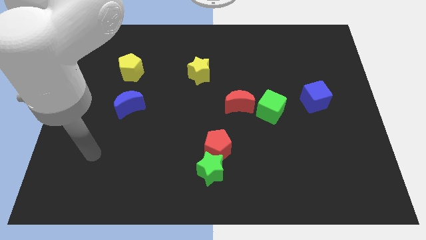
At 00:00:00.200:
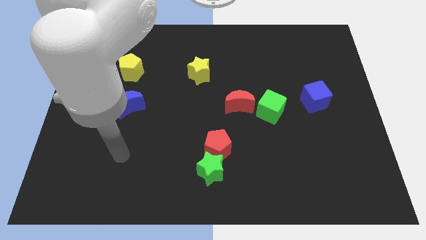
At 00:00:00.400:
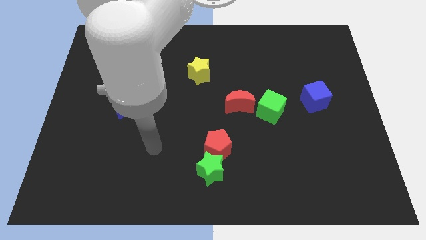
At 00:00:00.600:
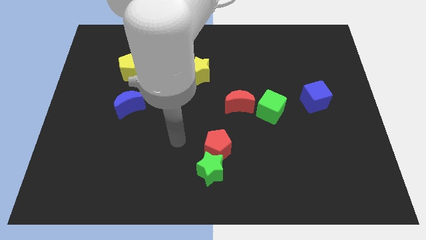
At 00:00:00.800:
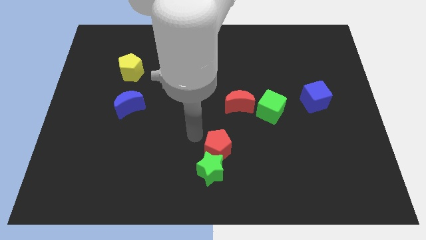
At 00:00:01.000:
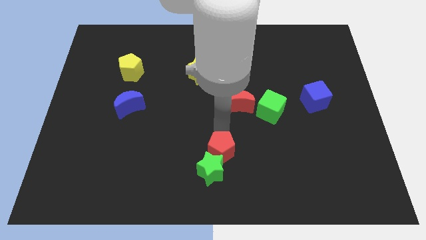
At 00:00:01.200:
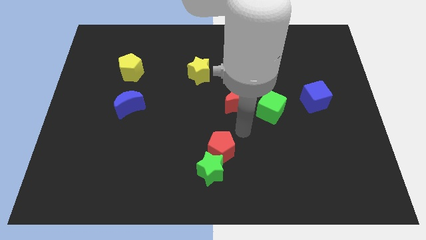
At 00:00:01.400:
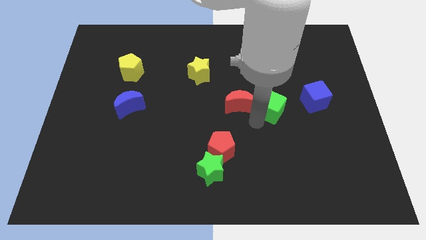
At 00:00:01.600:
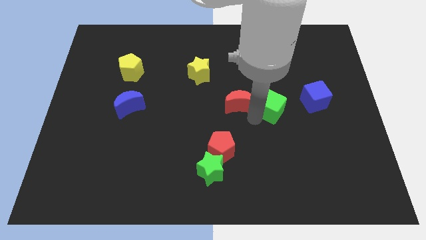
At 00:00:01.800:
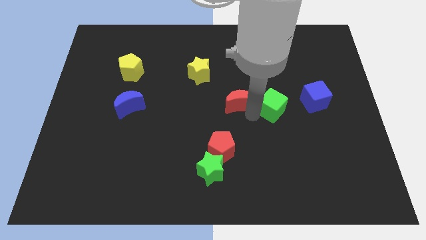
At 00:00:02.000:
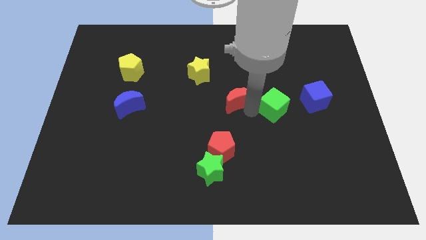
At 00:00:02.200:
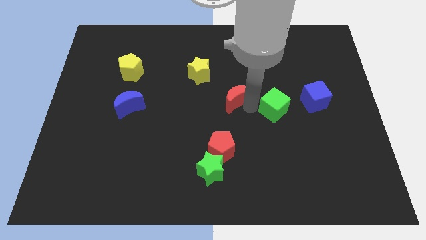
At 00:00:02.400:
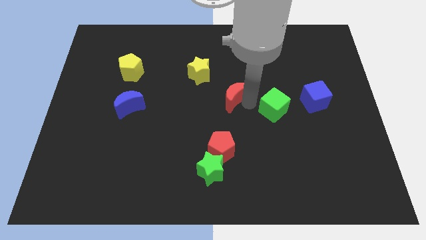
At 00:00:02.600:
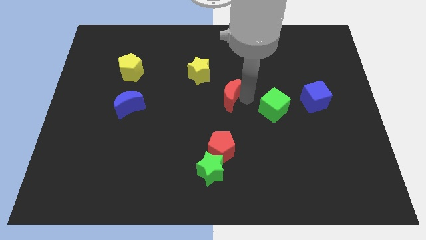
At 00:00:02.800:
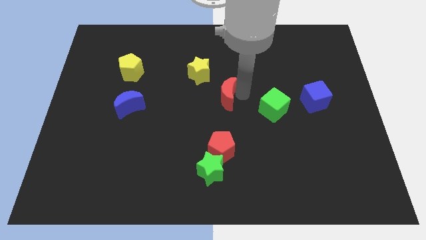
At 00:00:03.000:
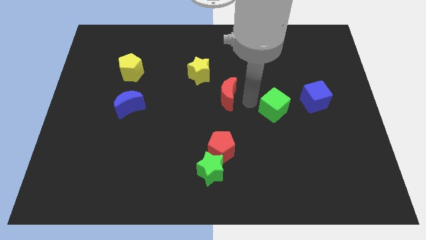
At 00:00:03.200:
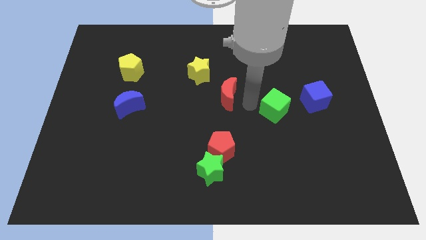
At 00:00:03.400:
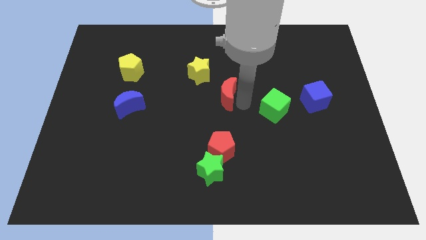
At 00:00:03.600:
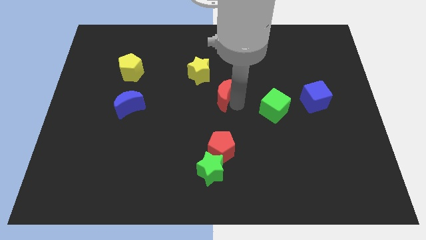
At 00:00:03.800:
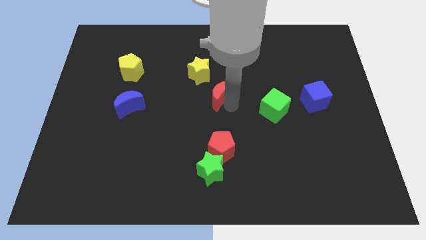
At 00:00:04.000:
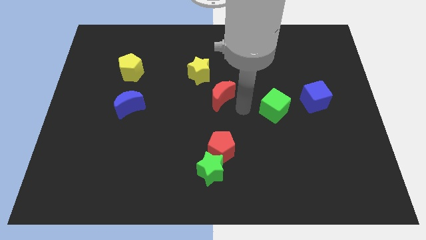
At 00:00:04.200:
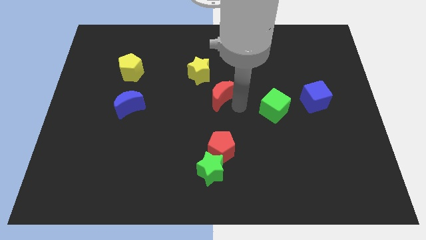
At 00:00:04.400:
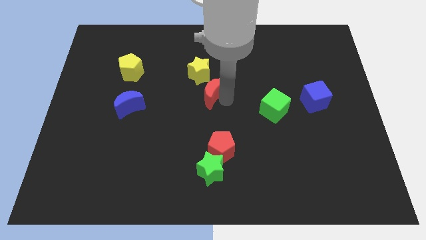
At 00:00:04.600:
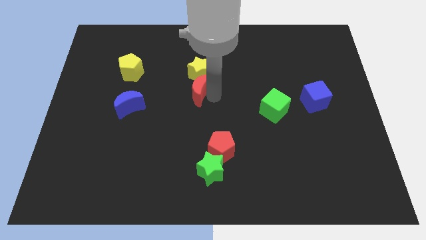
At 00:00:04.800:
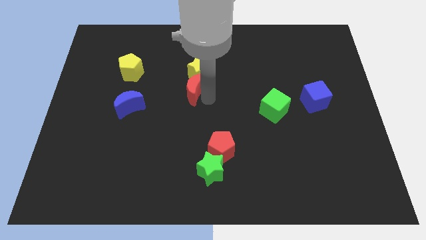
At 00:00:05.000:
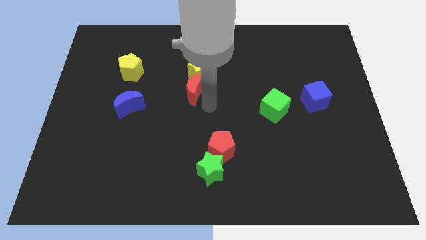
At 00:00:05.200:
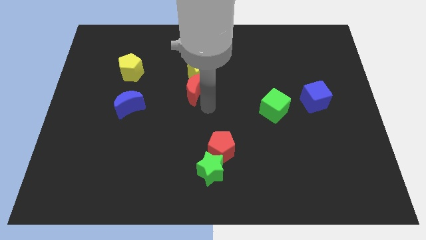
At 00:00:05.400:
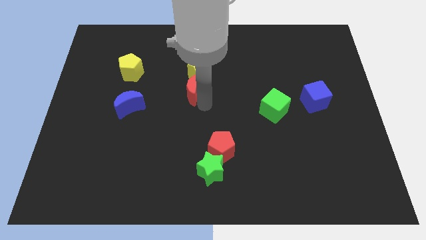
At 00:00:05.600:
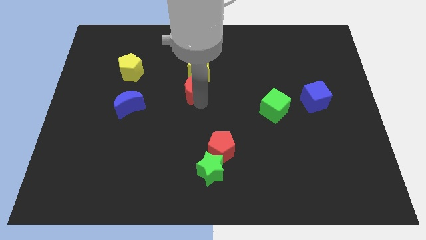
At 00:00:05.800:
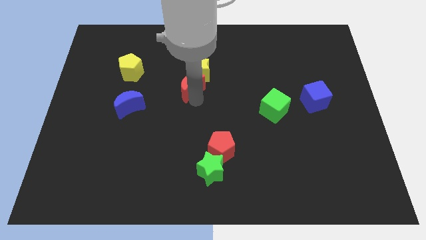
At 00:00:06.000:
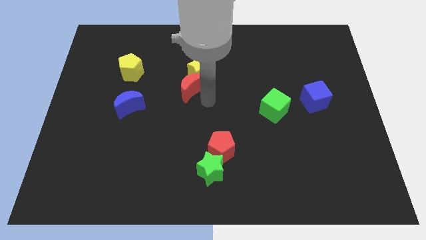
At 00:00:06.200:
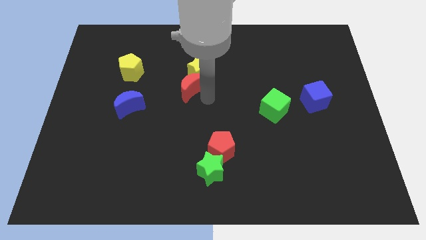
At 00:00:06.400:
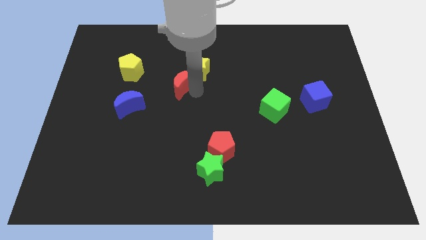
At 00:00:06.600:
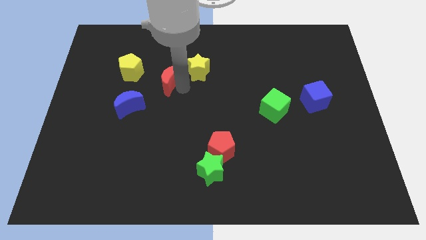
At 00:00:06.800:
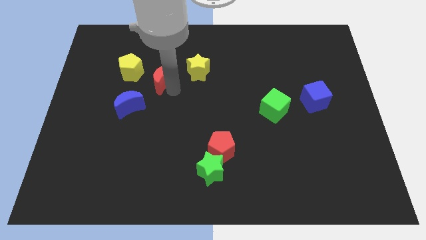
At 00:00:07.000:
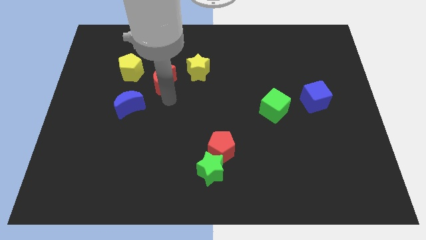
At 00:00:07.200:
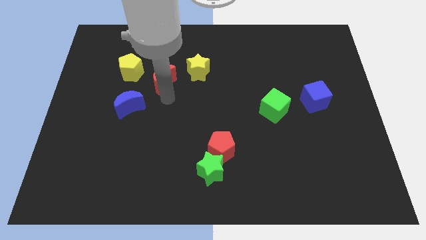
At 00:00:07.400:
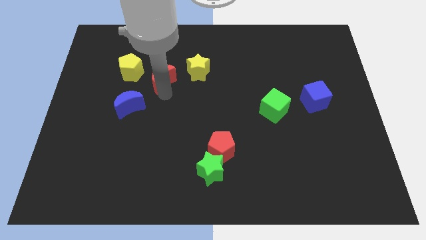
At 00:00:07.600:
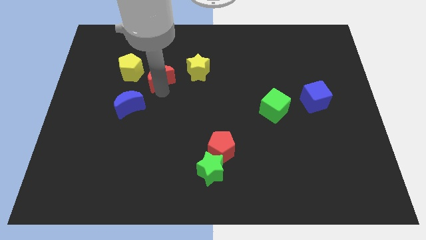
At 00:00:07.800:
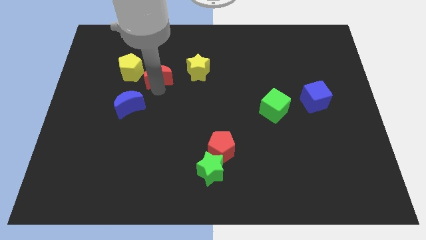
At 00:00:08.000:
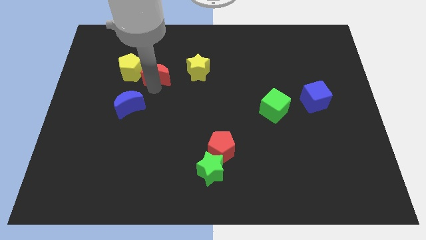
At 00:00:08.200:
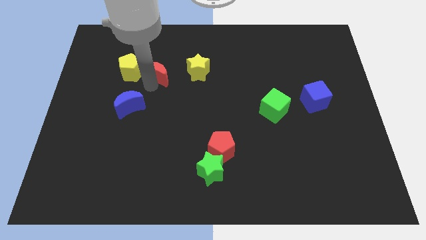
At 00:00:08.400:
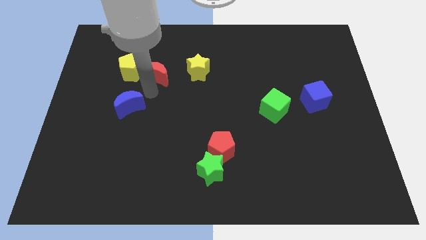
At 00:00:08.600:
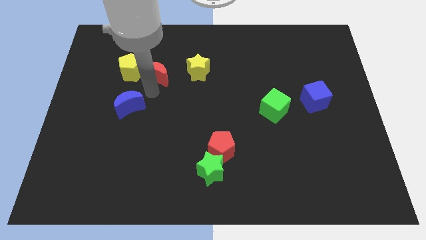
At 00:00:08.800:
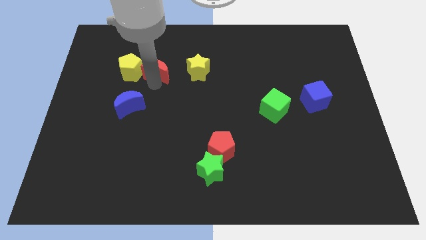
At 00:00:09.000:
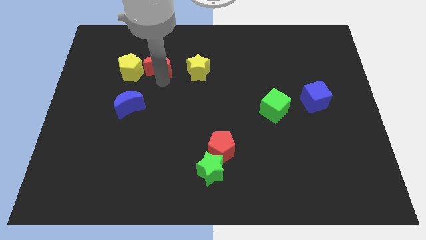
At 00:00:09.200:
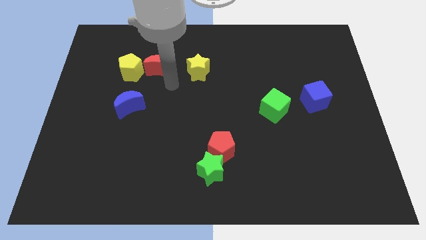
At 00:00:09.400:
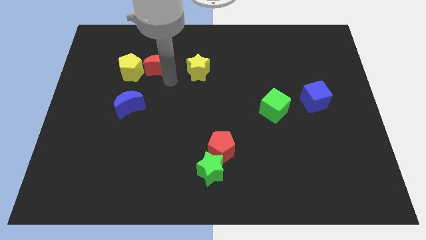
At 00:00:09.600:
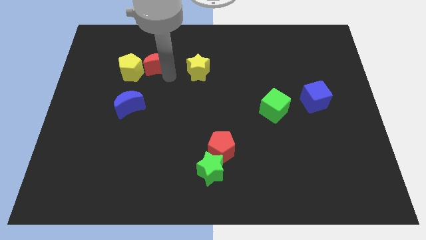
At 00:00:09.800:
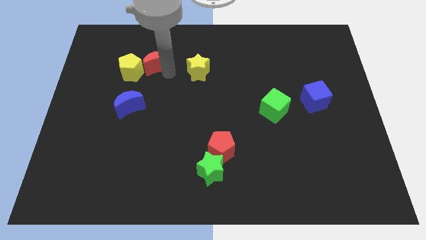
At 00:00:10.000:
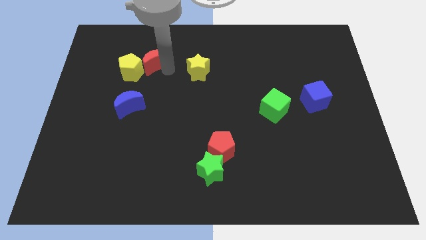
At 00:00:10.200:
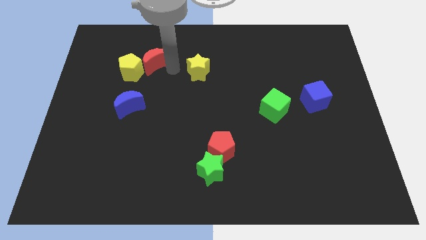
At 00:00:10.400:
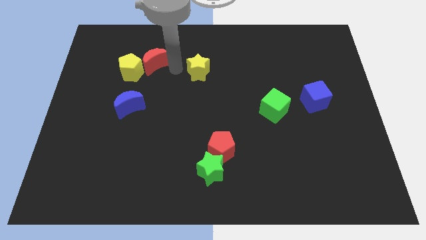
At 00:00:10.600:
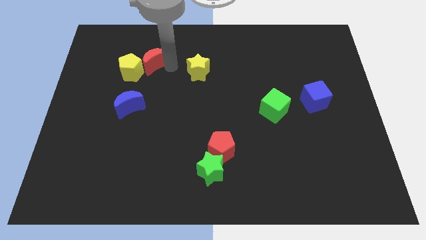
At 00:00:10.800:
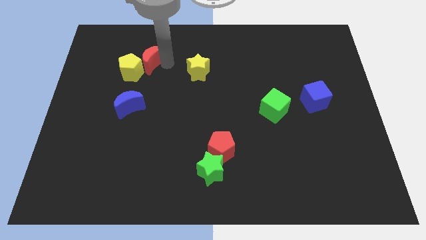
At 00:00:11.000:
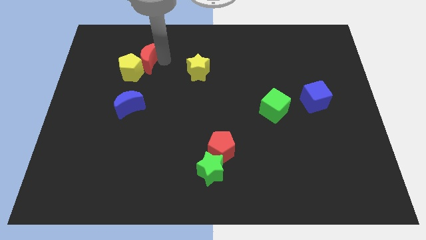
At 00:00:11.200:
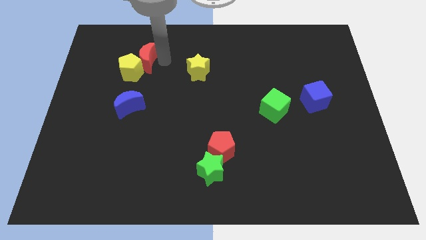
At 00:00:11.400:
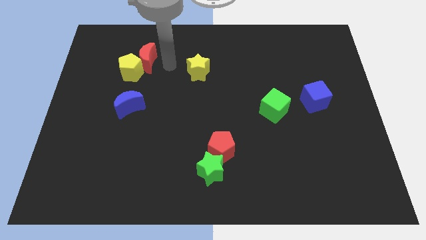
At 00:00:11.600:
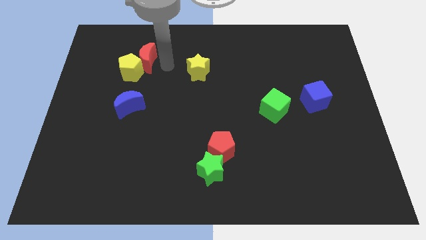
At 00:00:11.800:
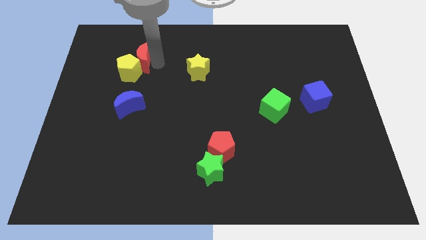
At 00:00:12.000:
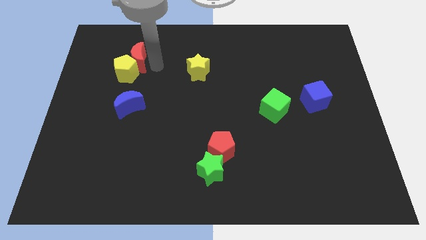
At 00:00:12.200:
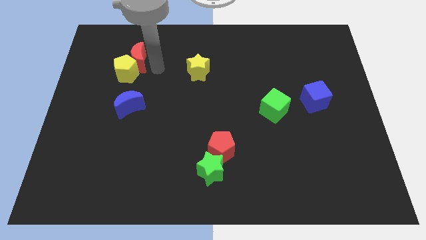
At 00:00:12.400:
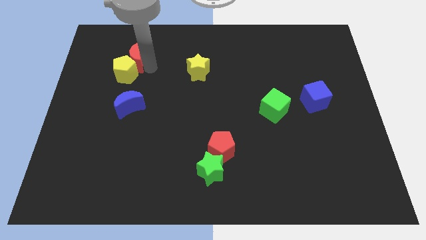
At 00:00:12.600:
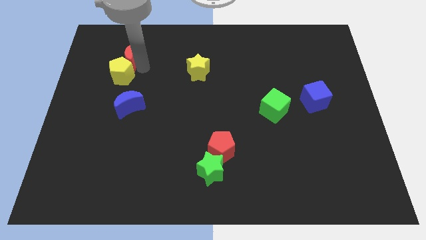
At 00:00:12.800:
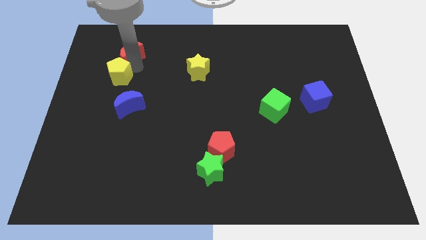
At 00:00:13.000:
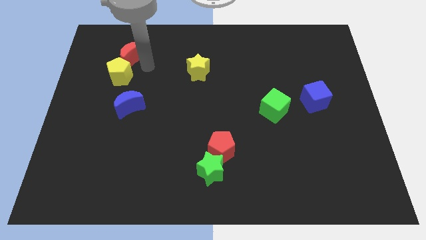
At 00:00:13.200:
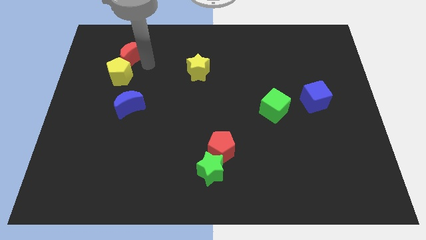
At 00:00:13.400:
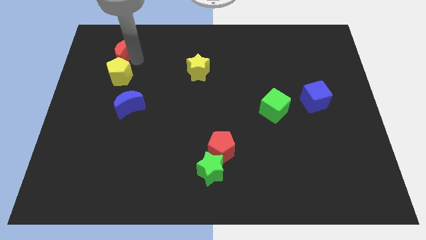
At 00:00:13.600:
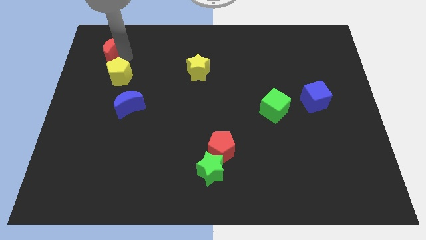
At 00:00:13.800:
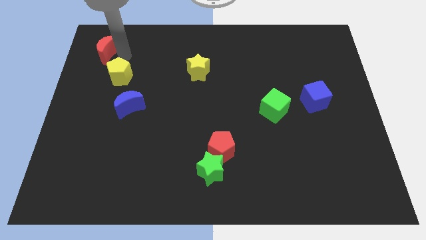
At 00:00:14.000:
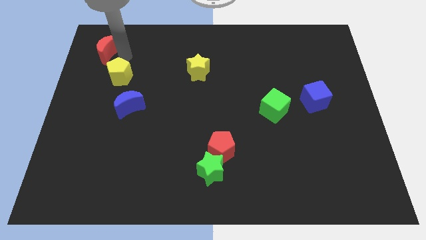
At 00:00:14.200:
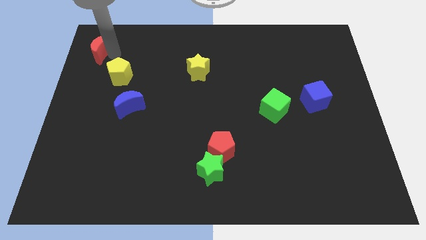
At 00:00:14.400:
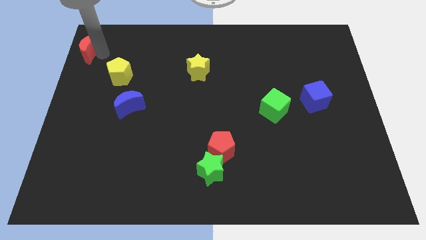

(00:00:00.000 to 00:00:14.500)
put the red moon to the top left corner
